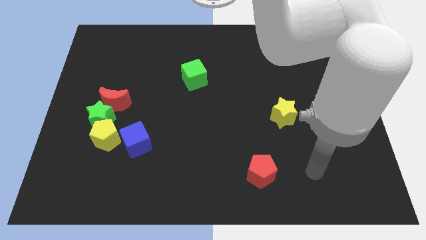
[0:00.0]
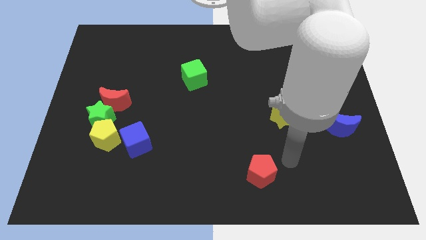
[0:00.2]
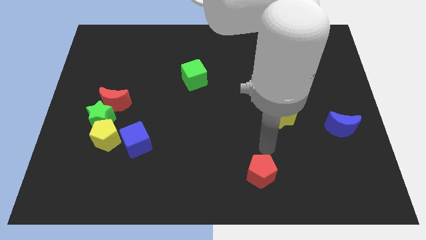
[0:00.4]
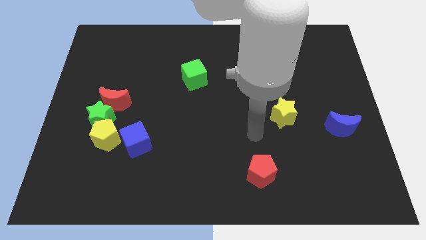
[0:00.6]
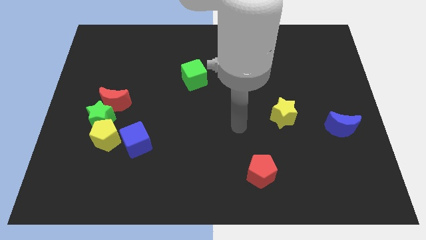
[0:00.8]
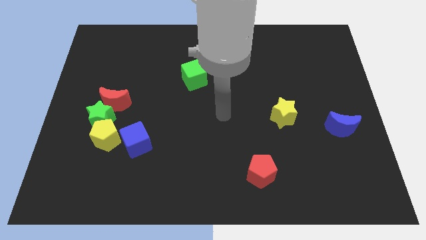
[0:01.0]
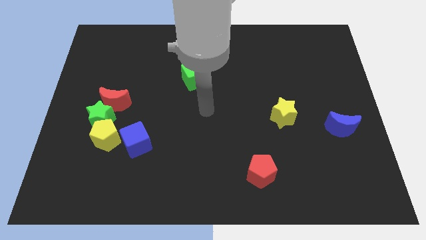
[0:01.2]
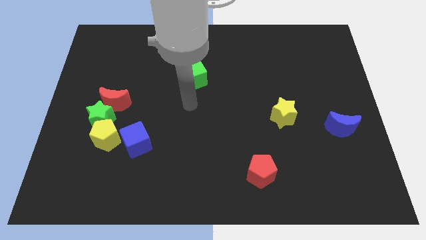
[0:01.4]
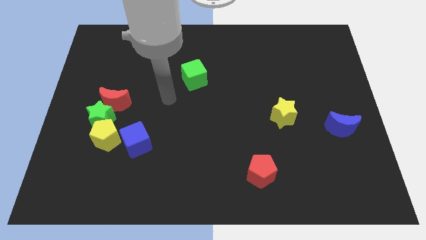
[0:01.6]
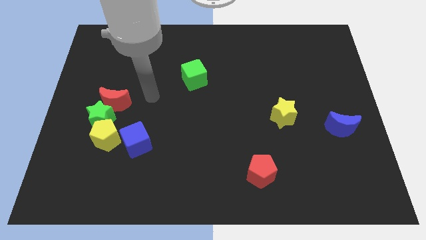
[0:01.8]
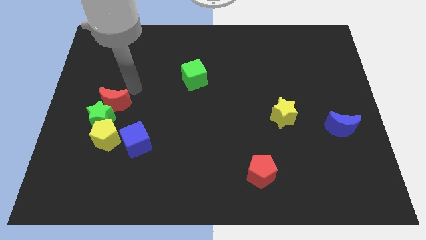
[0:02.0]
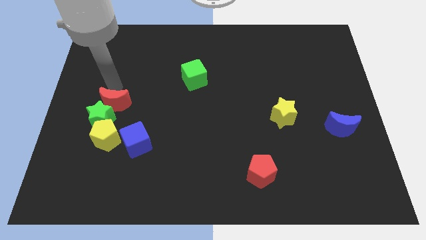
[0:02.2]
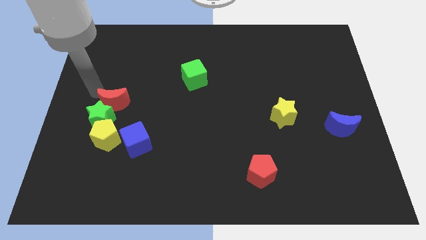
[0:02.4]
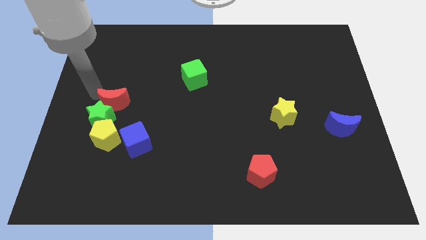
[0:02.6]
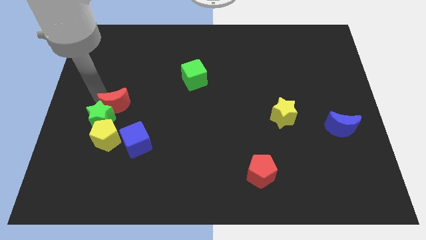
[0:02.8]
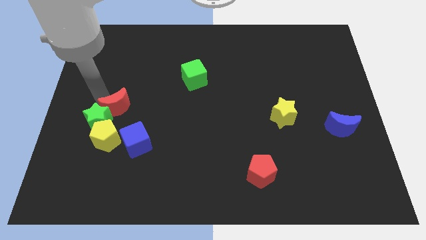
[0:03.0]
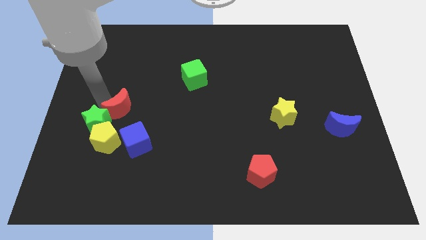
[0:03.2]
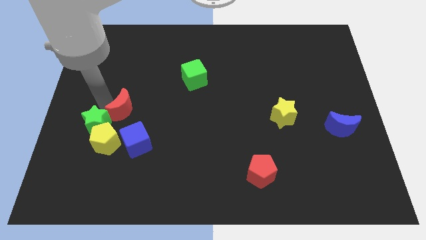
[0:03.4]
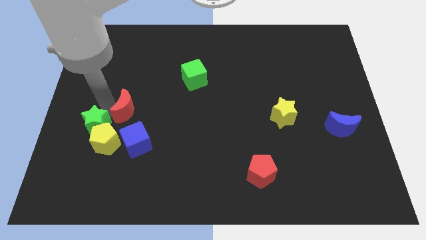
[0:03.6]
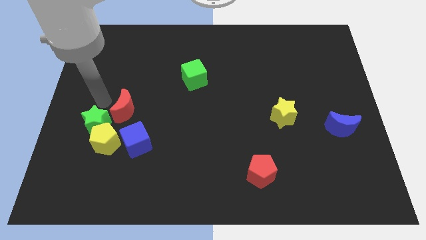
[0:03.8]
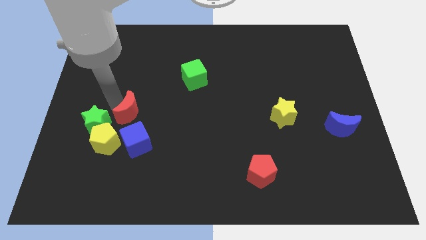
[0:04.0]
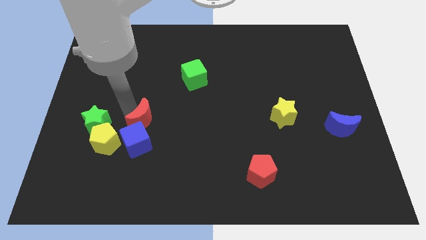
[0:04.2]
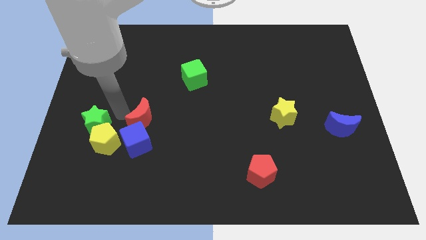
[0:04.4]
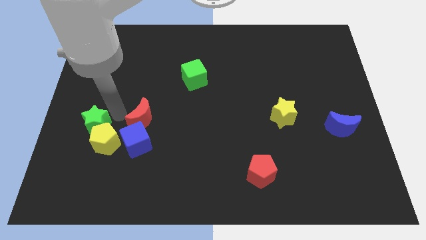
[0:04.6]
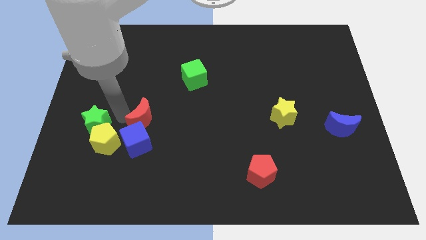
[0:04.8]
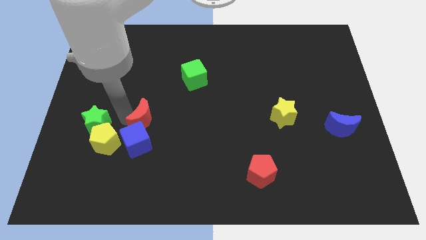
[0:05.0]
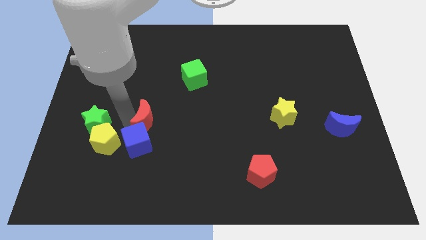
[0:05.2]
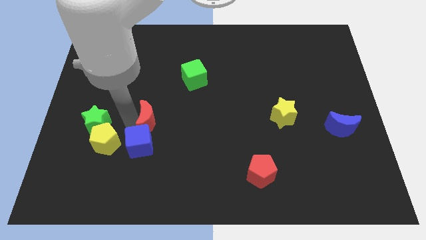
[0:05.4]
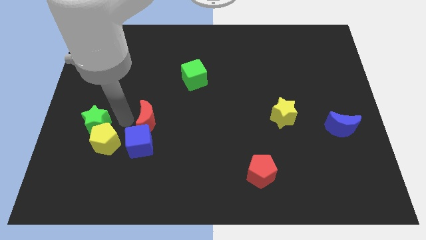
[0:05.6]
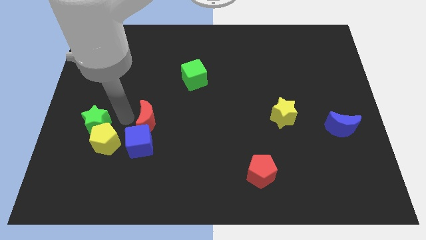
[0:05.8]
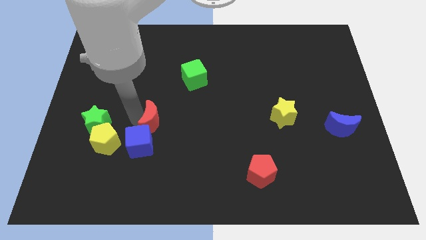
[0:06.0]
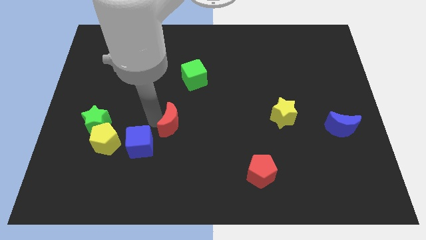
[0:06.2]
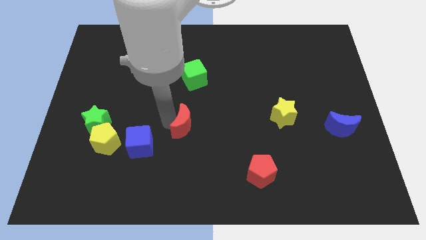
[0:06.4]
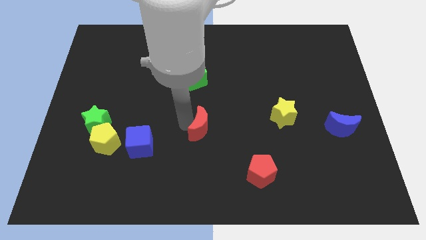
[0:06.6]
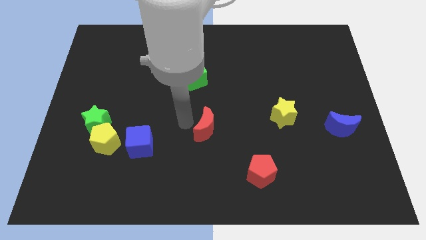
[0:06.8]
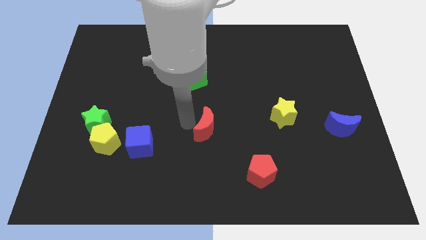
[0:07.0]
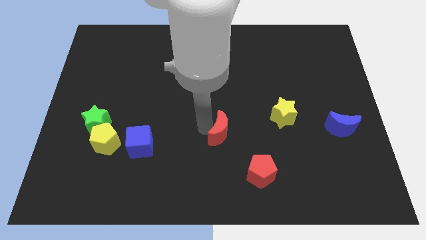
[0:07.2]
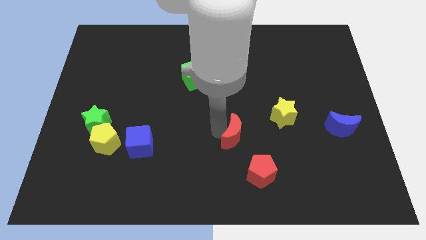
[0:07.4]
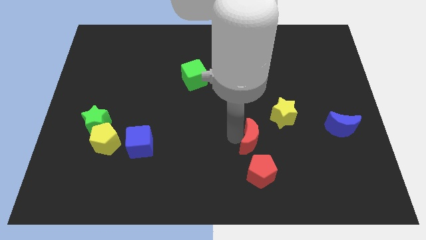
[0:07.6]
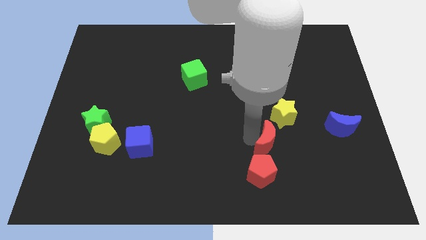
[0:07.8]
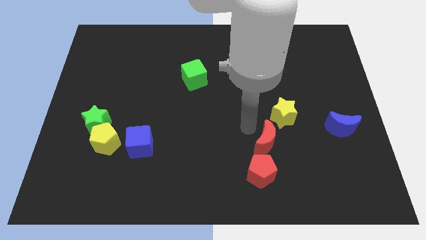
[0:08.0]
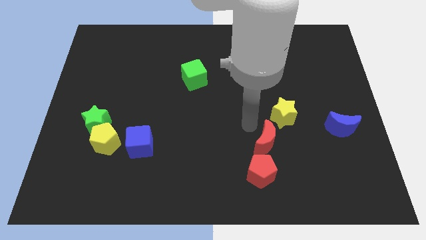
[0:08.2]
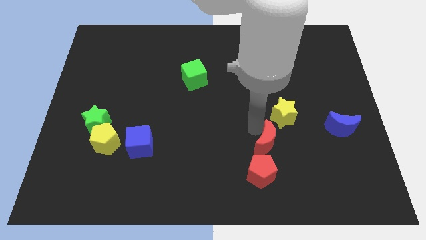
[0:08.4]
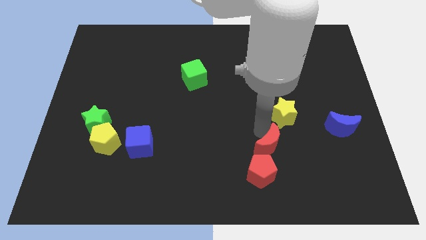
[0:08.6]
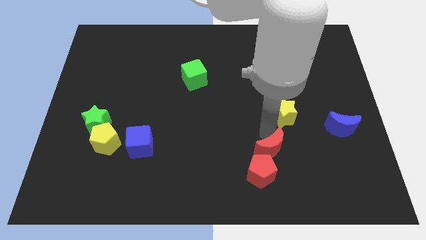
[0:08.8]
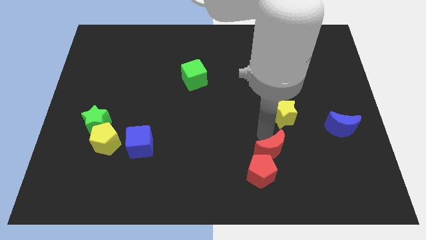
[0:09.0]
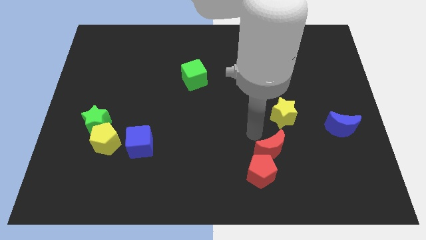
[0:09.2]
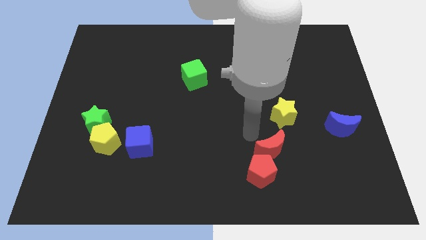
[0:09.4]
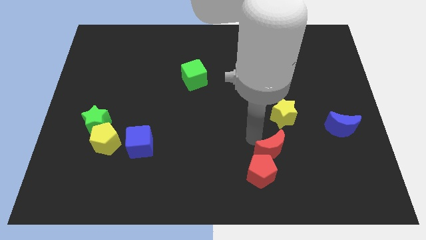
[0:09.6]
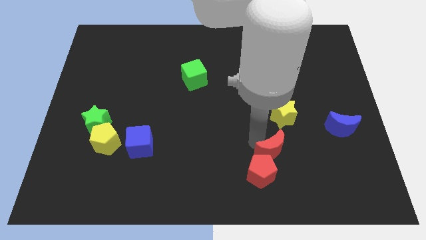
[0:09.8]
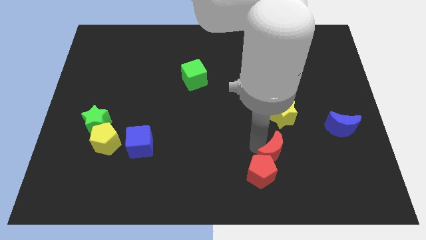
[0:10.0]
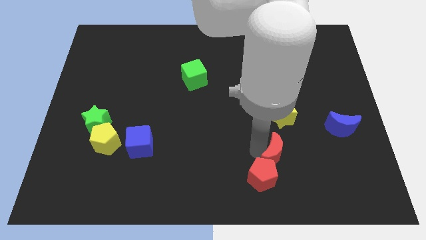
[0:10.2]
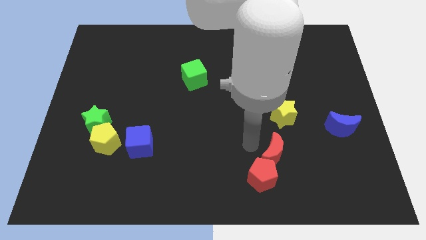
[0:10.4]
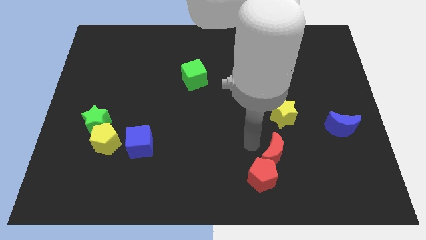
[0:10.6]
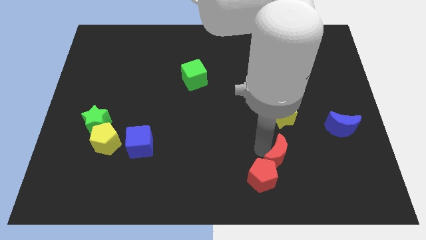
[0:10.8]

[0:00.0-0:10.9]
push the red moon to the right of the red pentagon

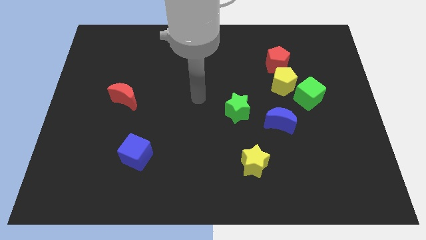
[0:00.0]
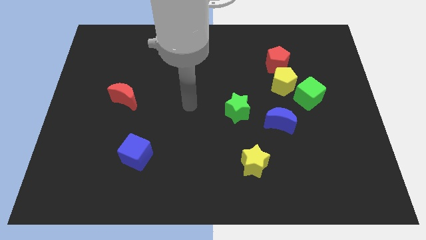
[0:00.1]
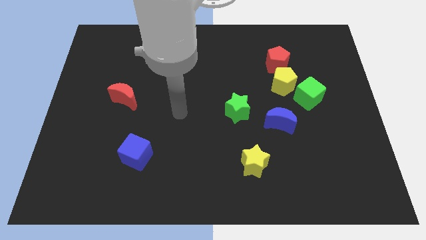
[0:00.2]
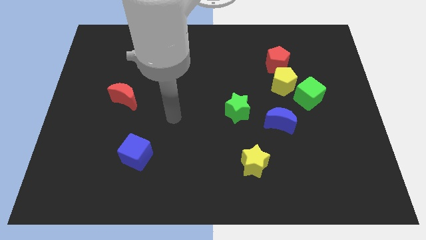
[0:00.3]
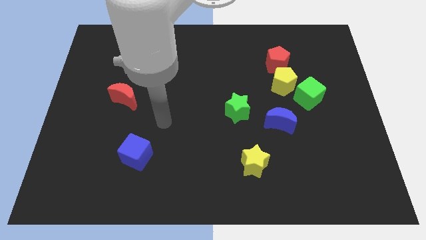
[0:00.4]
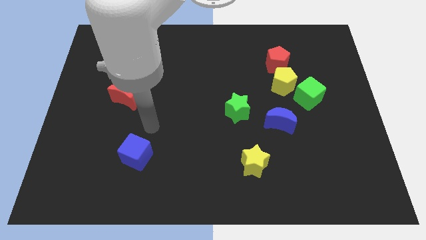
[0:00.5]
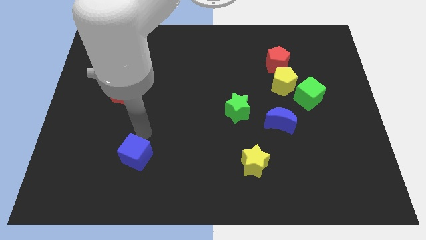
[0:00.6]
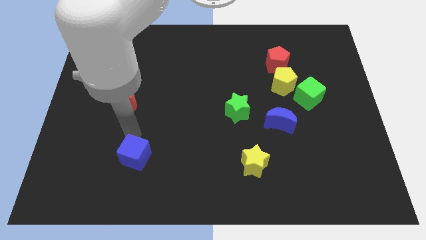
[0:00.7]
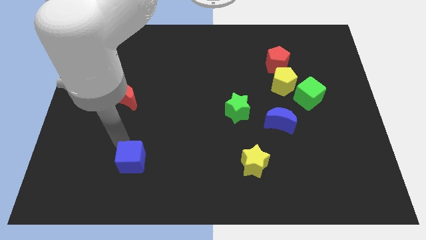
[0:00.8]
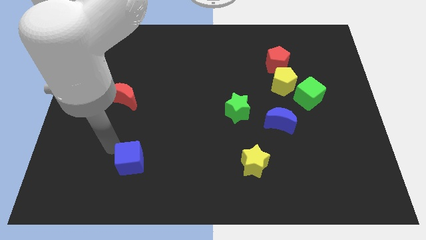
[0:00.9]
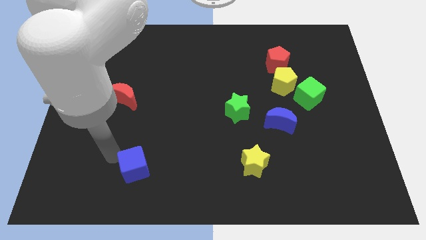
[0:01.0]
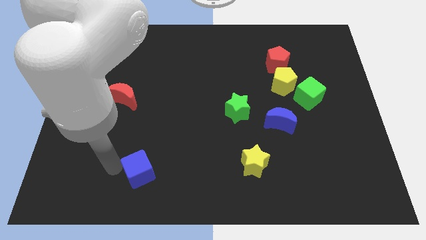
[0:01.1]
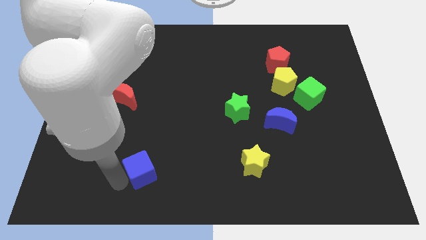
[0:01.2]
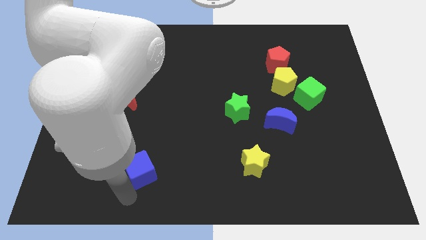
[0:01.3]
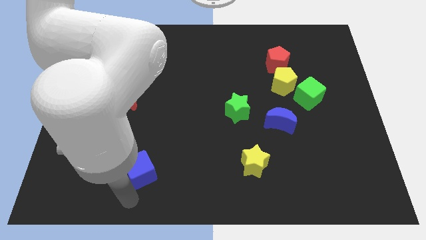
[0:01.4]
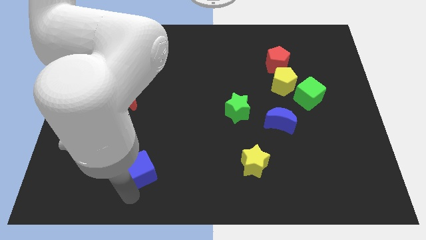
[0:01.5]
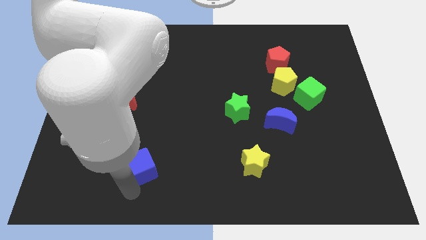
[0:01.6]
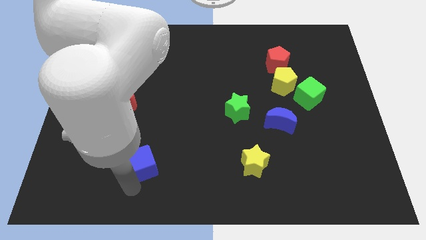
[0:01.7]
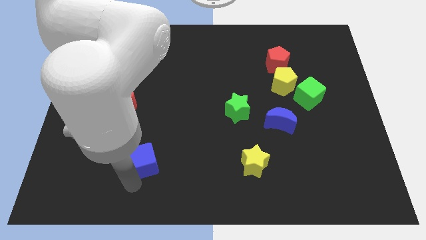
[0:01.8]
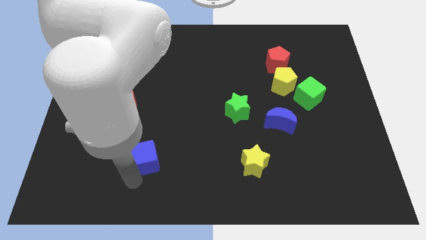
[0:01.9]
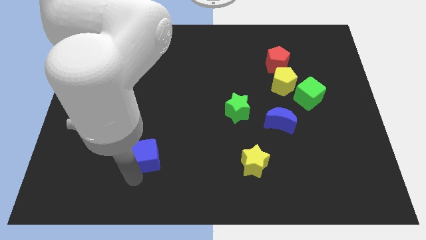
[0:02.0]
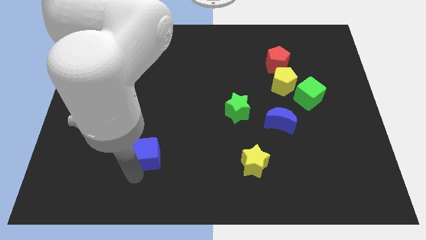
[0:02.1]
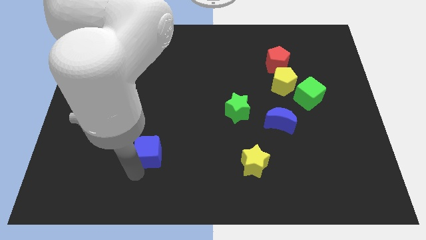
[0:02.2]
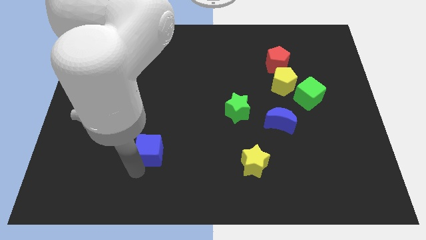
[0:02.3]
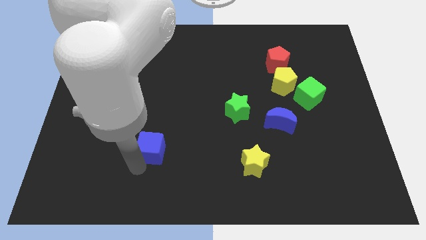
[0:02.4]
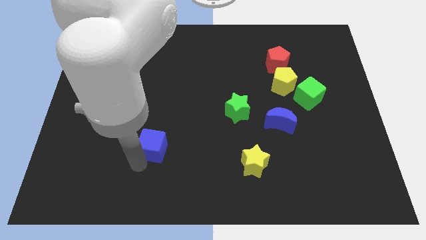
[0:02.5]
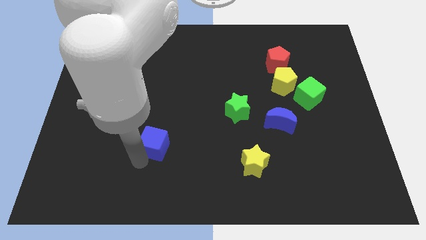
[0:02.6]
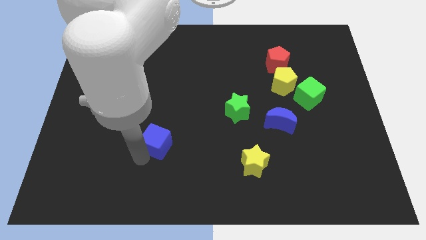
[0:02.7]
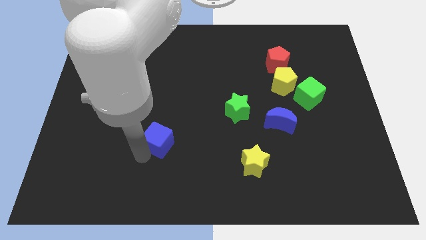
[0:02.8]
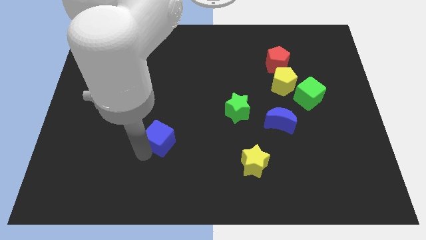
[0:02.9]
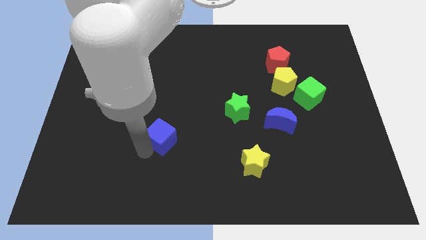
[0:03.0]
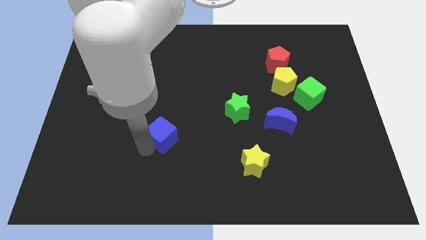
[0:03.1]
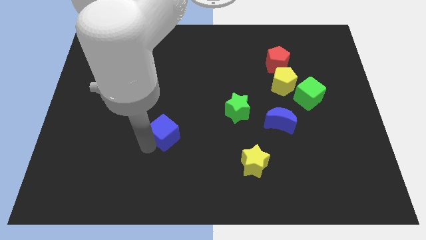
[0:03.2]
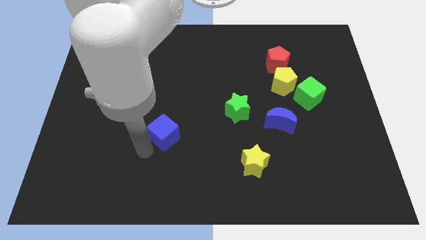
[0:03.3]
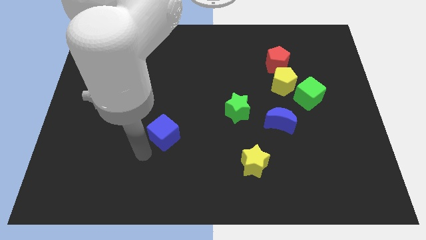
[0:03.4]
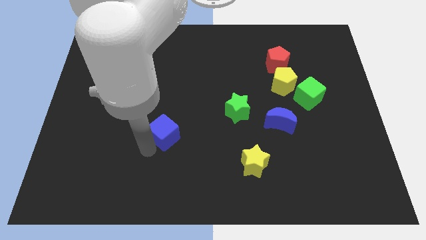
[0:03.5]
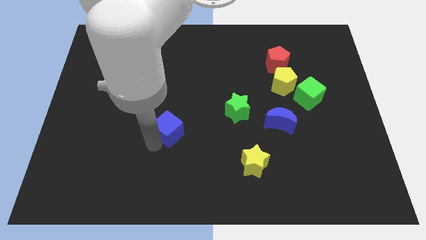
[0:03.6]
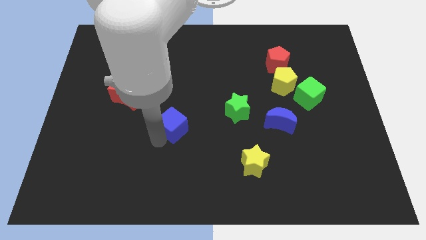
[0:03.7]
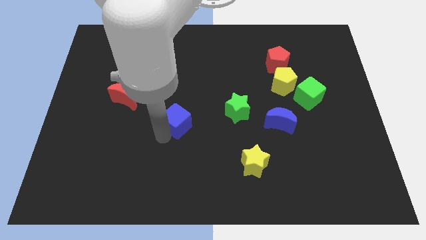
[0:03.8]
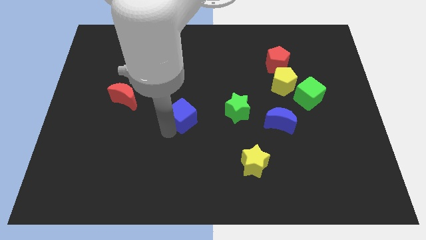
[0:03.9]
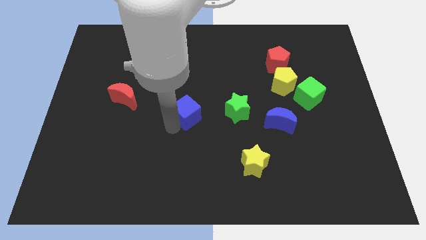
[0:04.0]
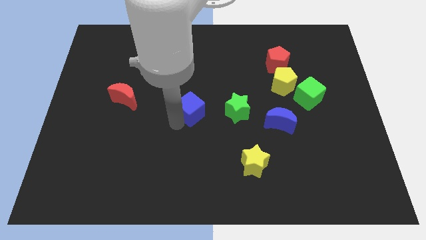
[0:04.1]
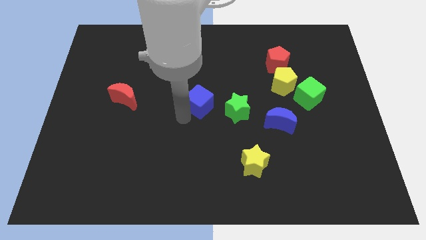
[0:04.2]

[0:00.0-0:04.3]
slide the blue cube to the top left of the green star
